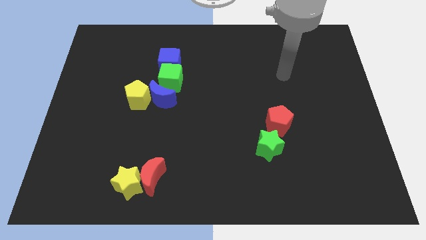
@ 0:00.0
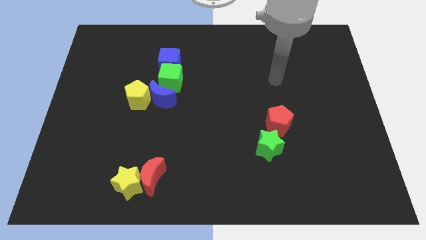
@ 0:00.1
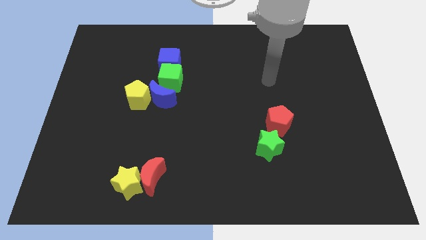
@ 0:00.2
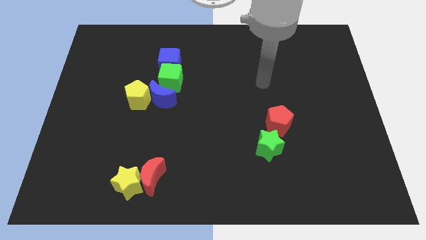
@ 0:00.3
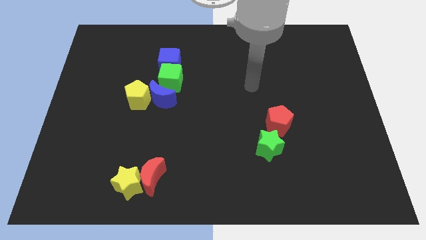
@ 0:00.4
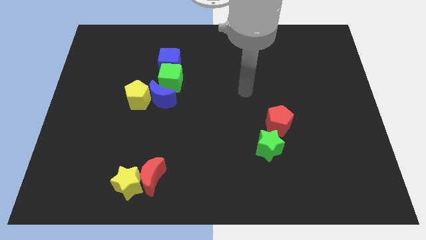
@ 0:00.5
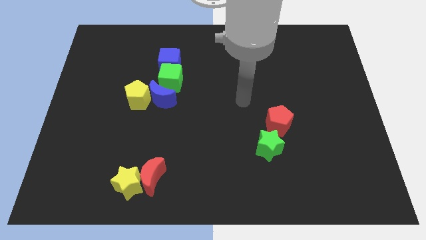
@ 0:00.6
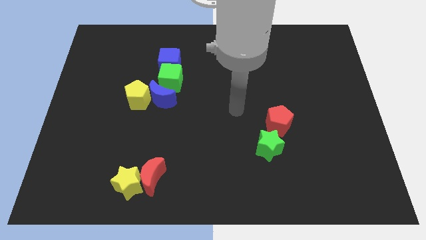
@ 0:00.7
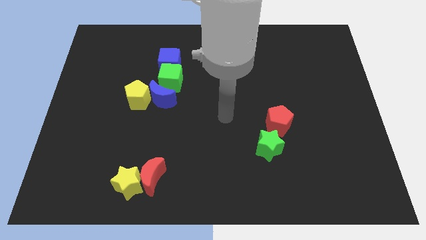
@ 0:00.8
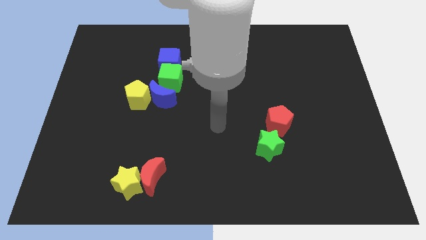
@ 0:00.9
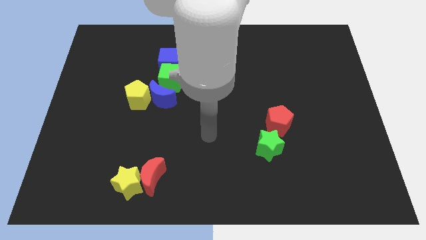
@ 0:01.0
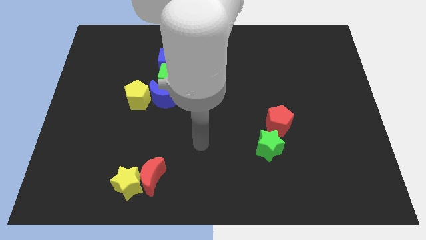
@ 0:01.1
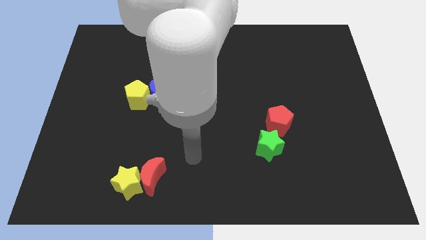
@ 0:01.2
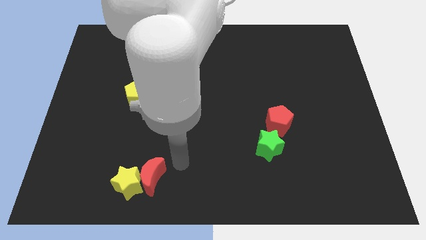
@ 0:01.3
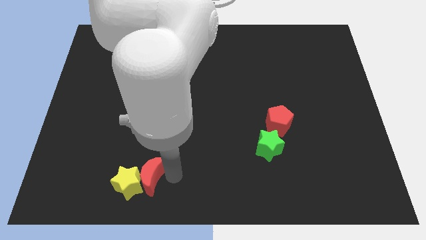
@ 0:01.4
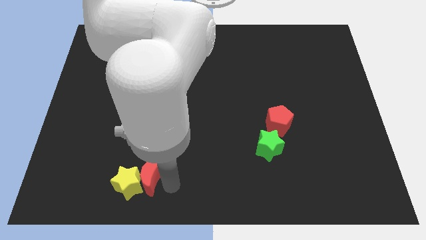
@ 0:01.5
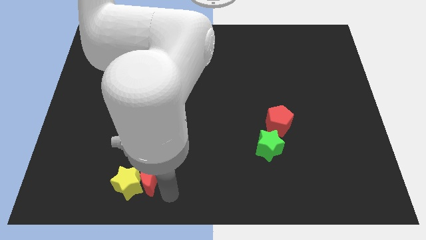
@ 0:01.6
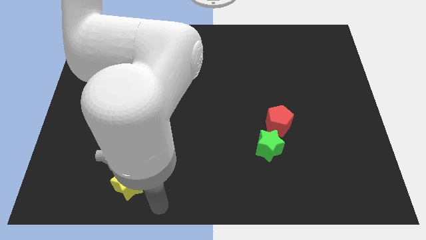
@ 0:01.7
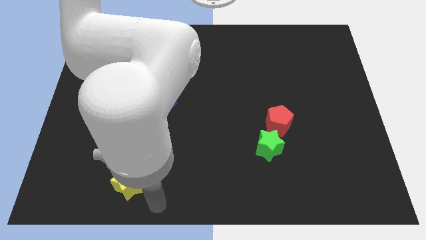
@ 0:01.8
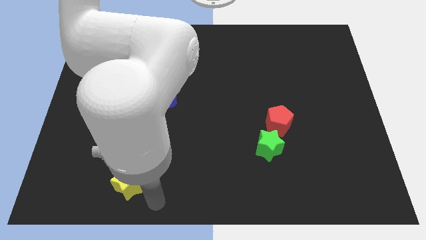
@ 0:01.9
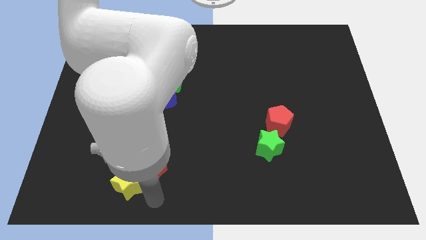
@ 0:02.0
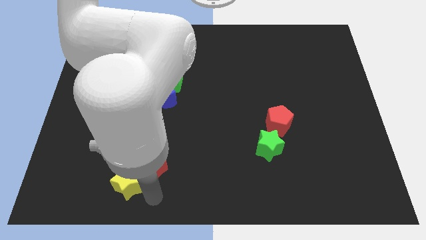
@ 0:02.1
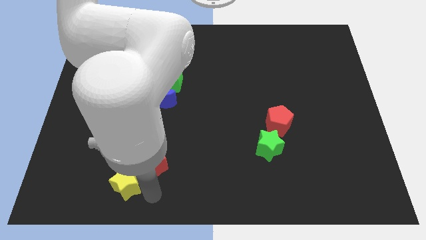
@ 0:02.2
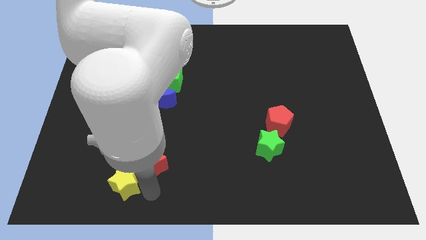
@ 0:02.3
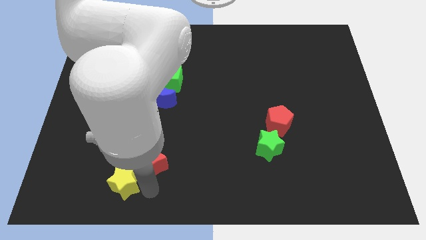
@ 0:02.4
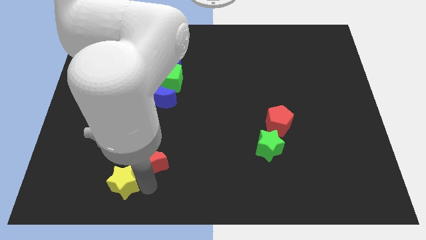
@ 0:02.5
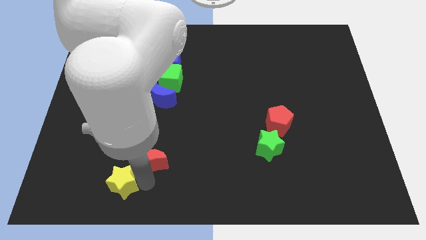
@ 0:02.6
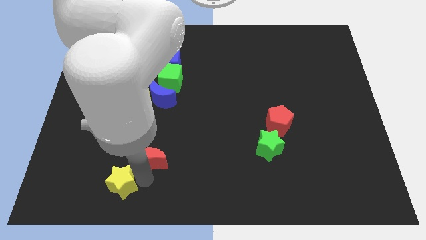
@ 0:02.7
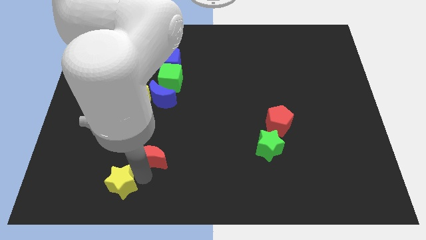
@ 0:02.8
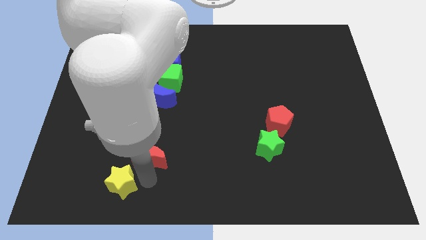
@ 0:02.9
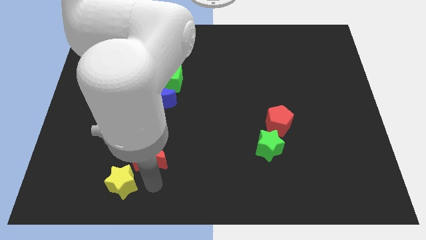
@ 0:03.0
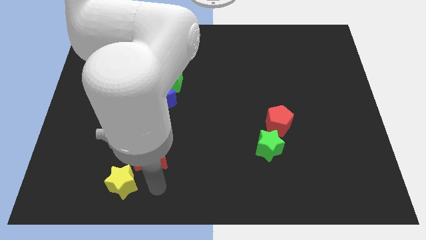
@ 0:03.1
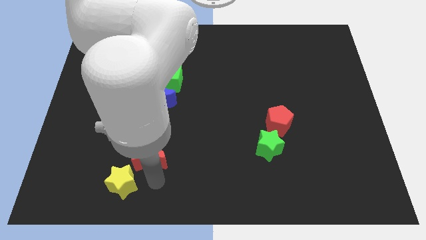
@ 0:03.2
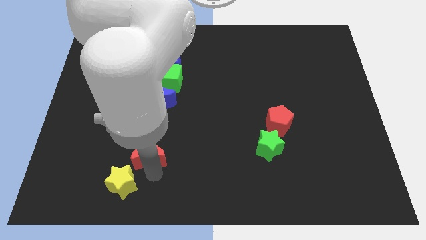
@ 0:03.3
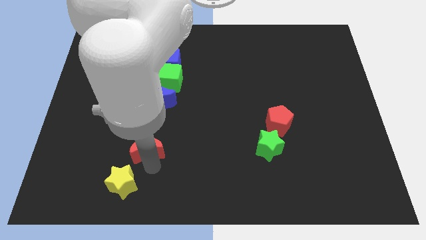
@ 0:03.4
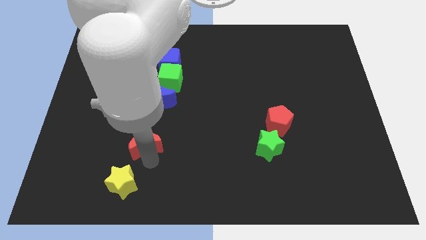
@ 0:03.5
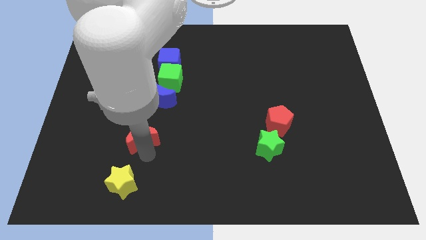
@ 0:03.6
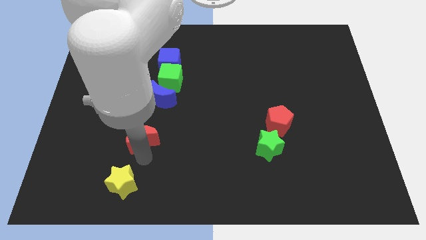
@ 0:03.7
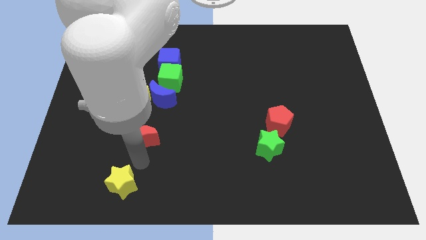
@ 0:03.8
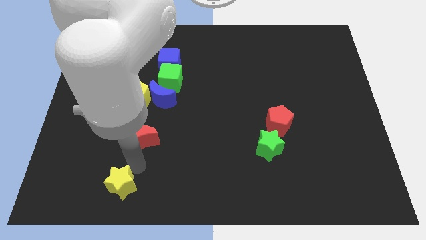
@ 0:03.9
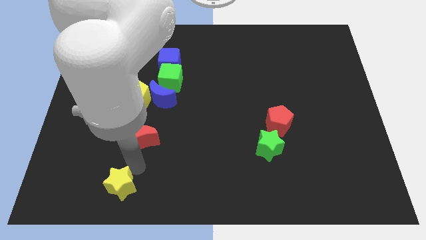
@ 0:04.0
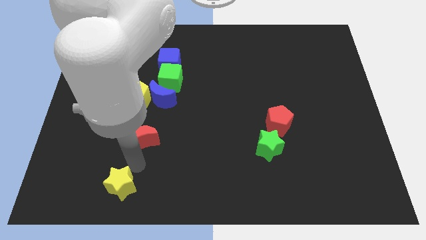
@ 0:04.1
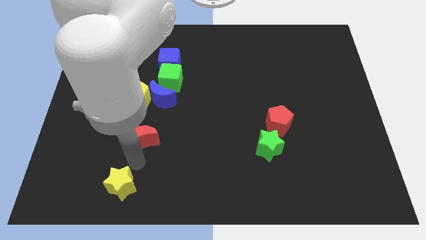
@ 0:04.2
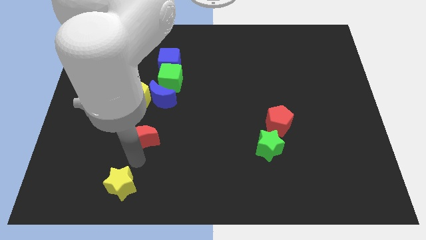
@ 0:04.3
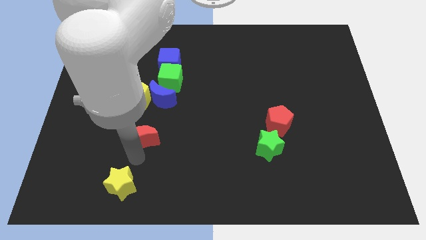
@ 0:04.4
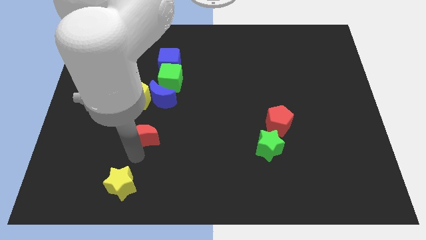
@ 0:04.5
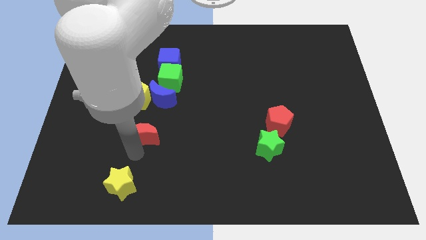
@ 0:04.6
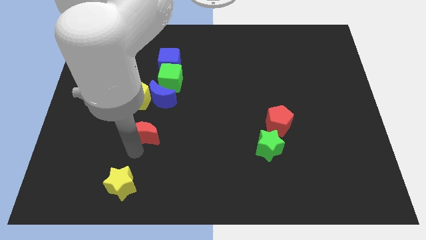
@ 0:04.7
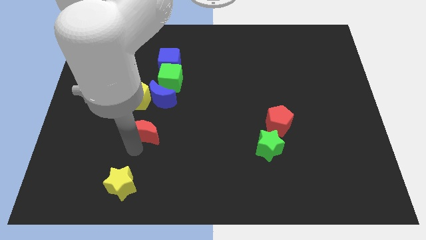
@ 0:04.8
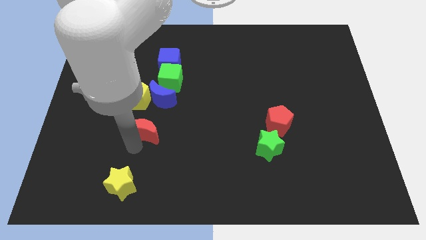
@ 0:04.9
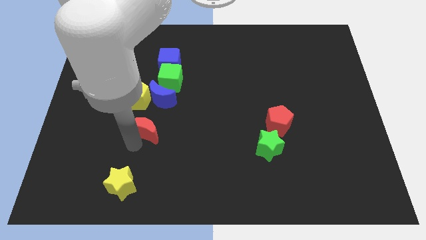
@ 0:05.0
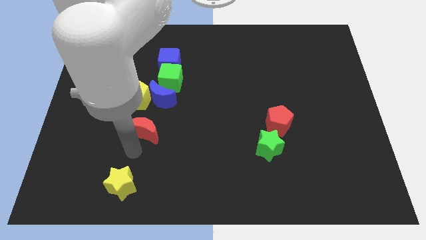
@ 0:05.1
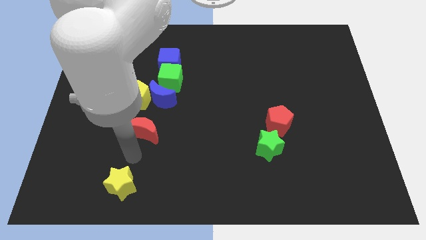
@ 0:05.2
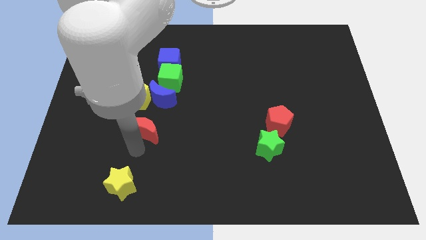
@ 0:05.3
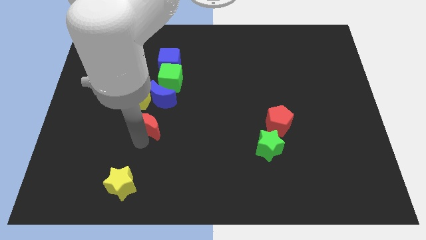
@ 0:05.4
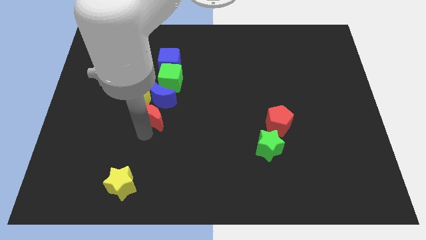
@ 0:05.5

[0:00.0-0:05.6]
put the red moon next to the blue moon

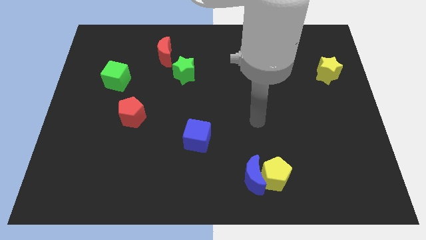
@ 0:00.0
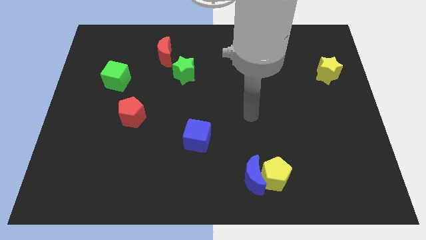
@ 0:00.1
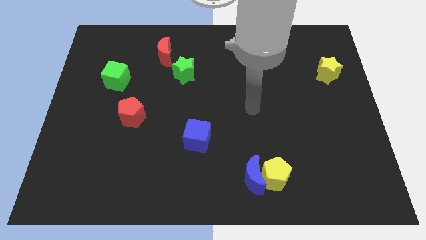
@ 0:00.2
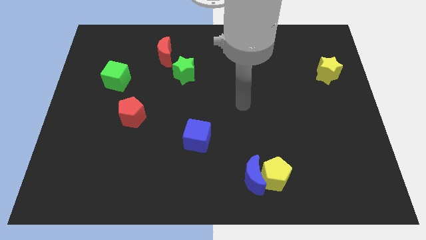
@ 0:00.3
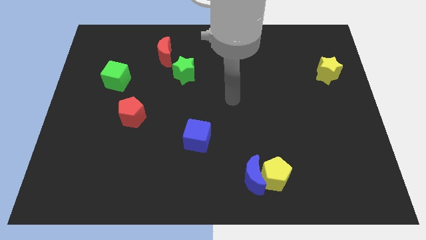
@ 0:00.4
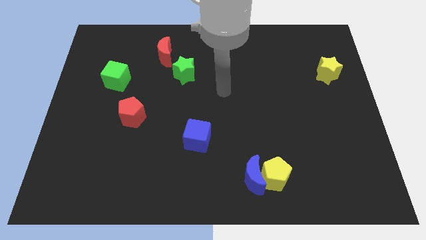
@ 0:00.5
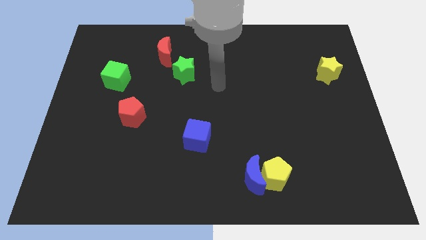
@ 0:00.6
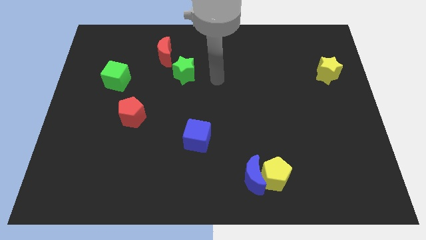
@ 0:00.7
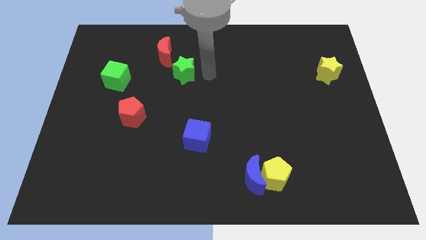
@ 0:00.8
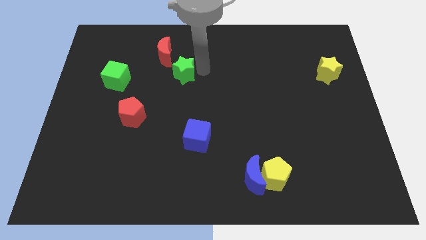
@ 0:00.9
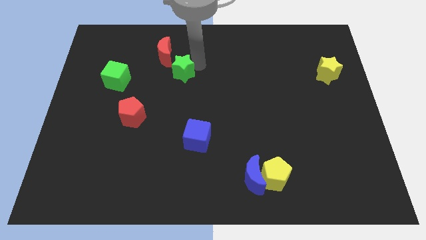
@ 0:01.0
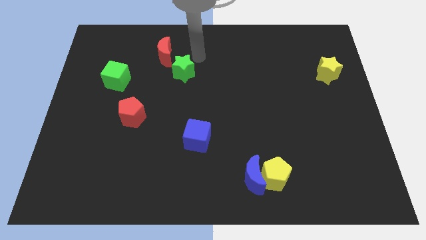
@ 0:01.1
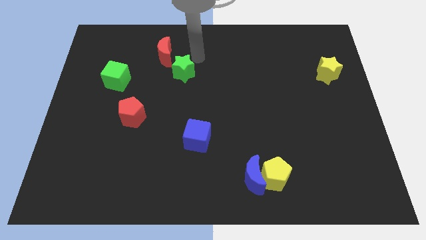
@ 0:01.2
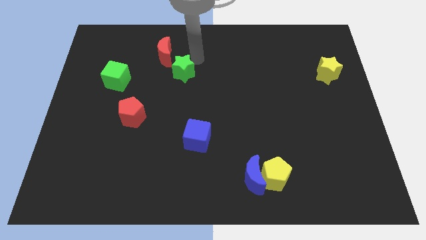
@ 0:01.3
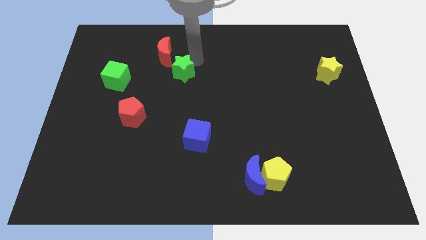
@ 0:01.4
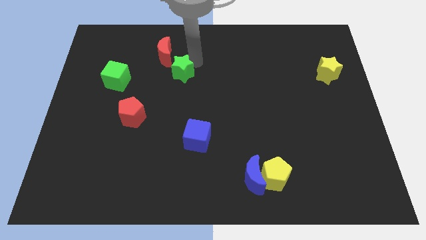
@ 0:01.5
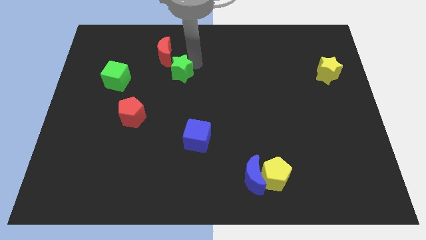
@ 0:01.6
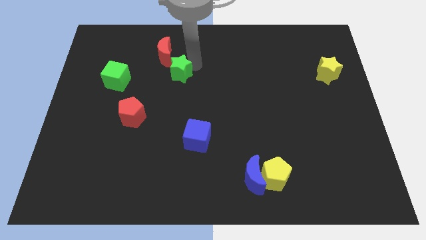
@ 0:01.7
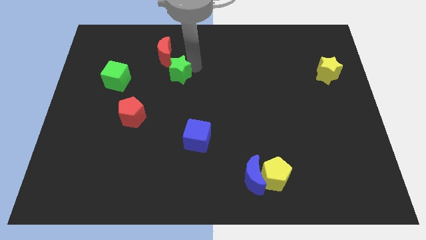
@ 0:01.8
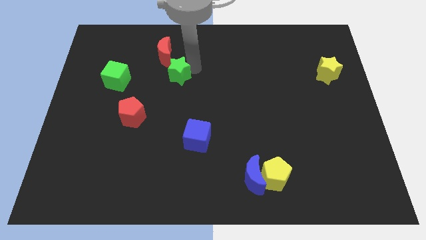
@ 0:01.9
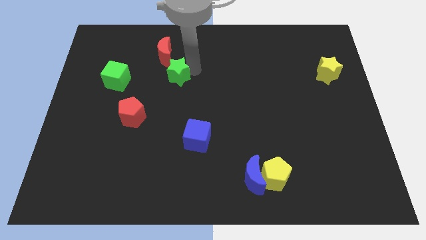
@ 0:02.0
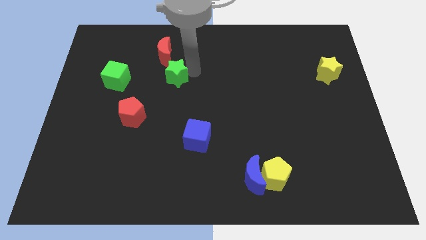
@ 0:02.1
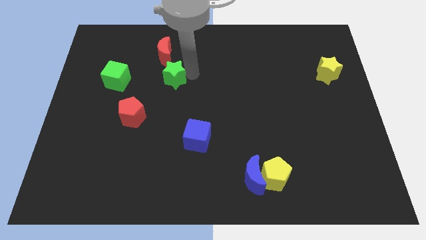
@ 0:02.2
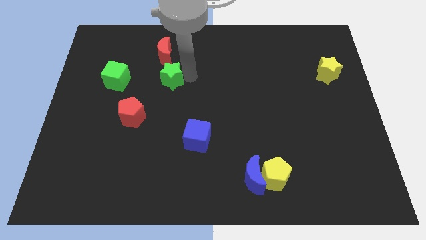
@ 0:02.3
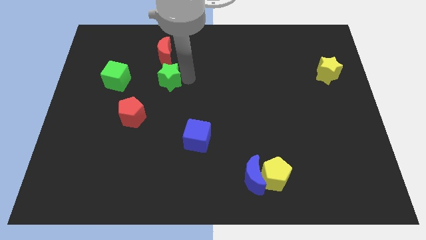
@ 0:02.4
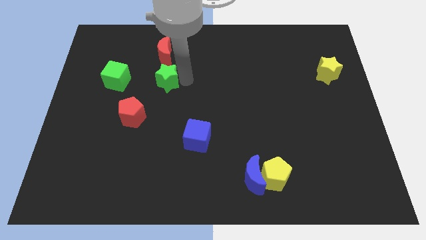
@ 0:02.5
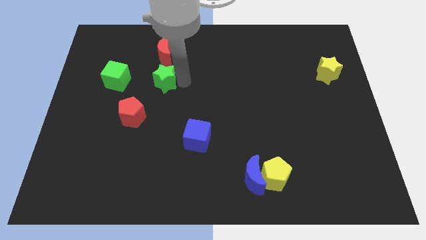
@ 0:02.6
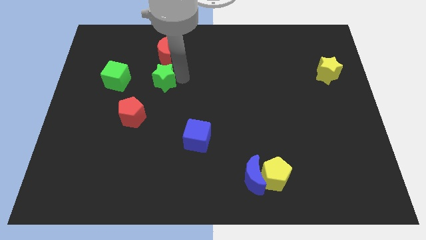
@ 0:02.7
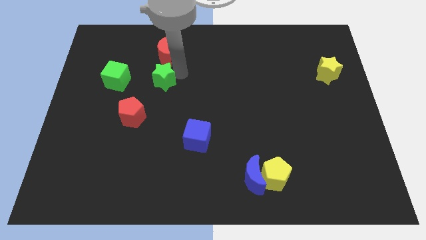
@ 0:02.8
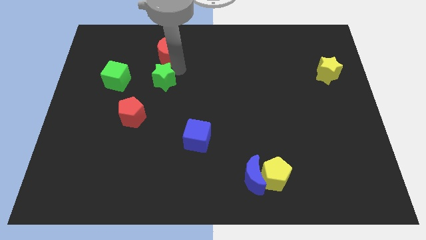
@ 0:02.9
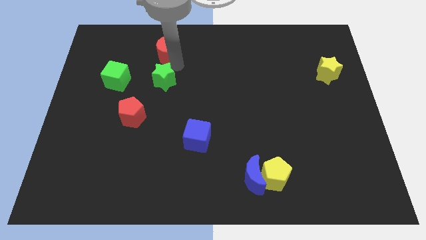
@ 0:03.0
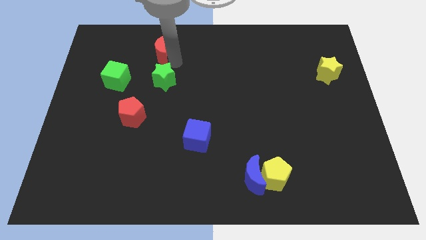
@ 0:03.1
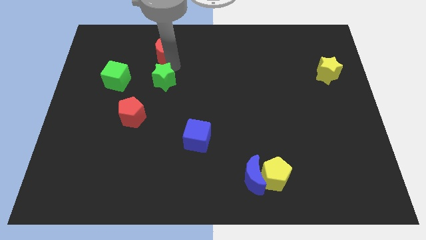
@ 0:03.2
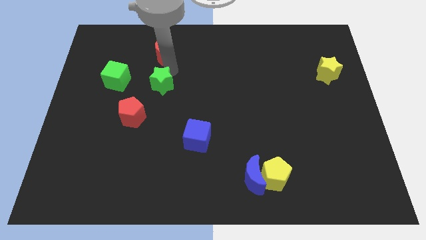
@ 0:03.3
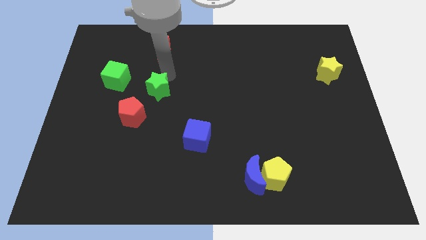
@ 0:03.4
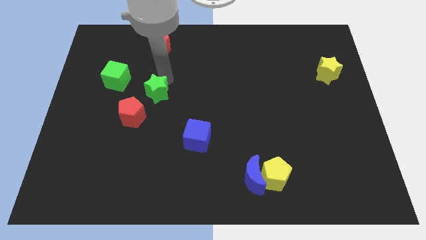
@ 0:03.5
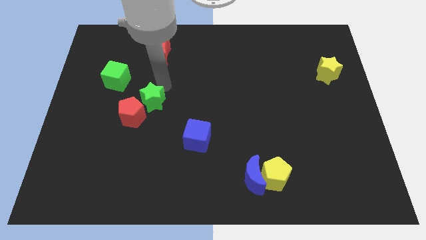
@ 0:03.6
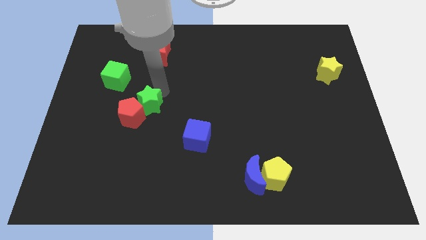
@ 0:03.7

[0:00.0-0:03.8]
put the green star close to the red pentagon
